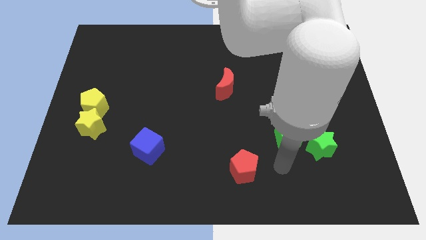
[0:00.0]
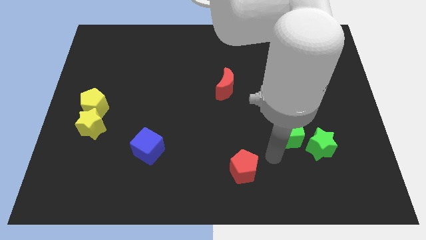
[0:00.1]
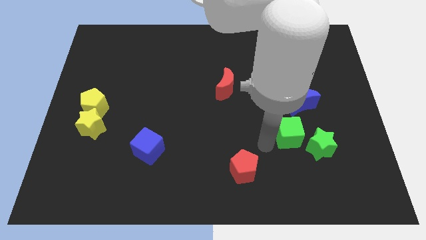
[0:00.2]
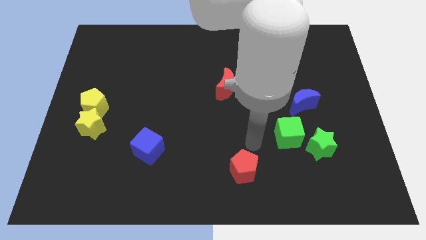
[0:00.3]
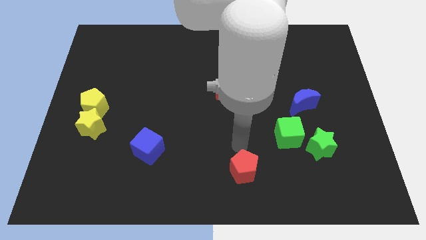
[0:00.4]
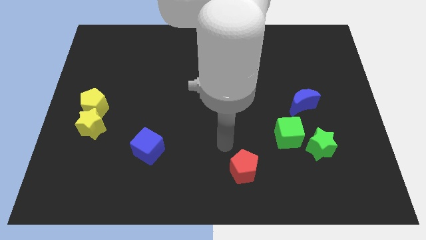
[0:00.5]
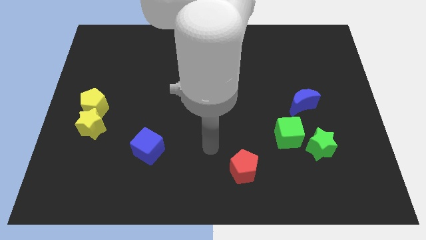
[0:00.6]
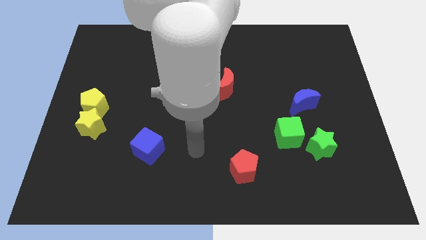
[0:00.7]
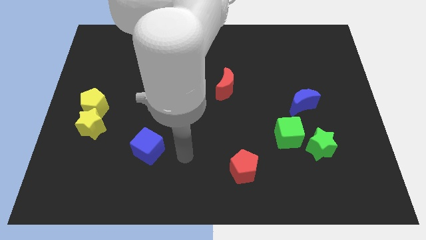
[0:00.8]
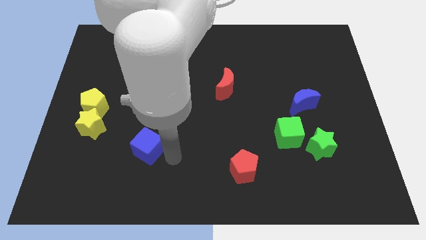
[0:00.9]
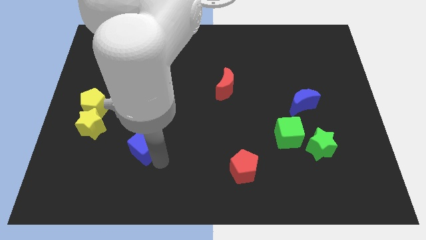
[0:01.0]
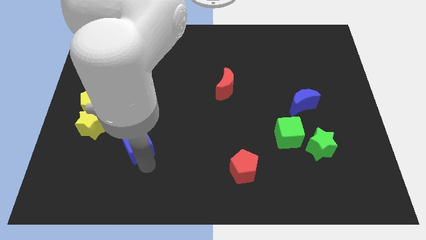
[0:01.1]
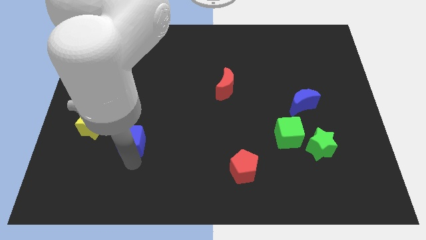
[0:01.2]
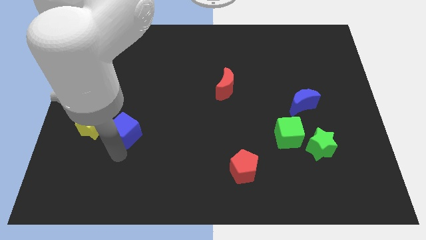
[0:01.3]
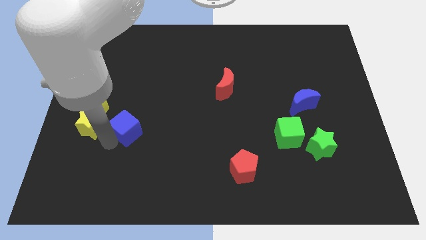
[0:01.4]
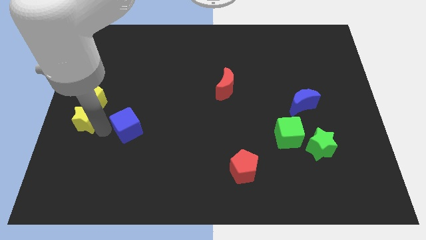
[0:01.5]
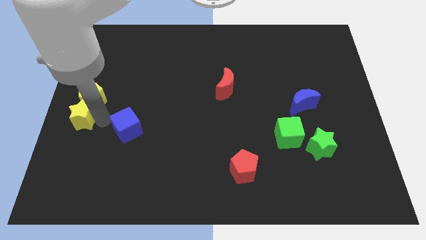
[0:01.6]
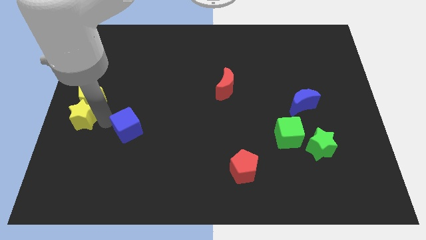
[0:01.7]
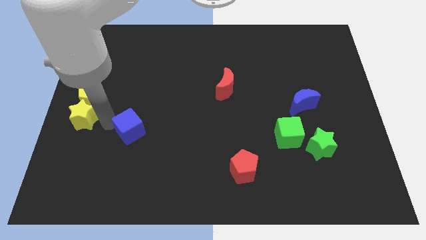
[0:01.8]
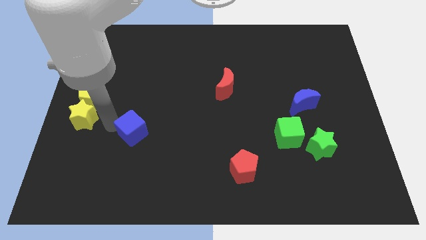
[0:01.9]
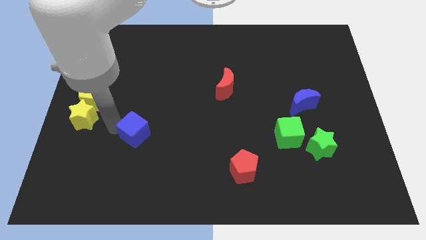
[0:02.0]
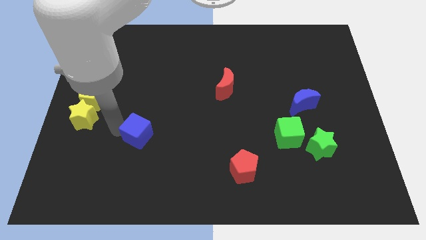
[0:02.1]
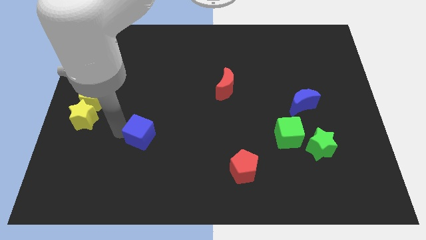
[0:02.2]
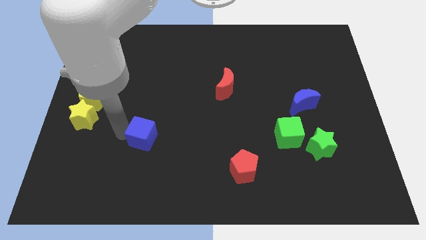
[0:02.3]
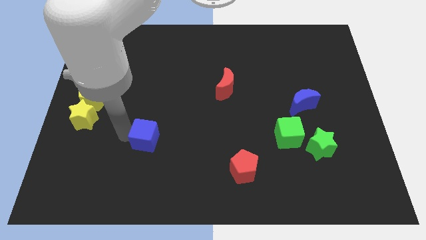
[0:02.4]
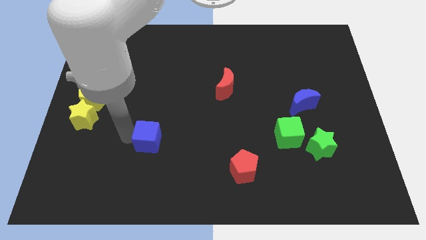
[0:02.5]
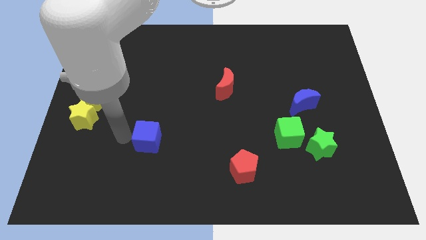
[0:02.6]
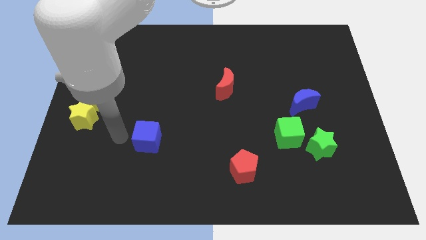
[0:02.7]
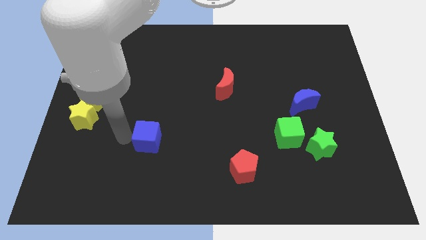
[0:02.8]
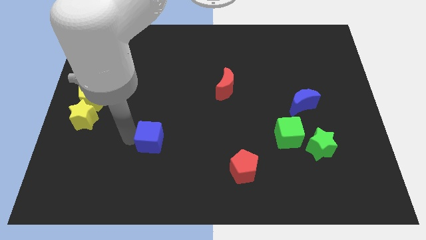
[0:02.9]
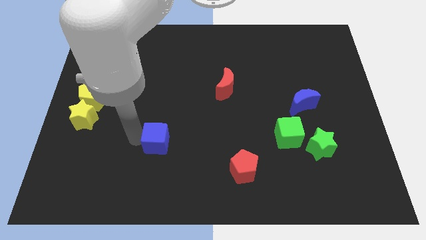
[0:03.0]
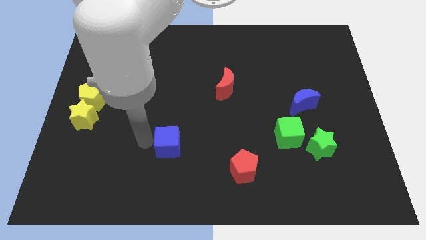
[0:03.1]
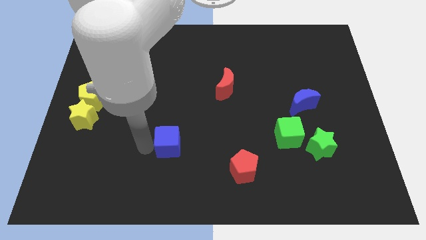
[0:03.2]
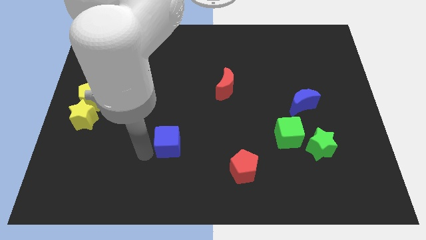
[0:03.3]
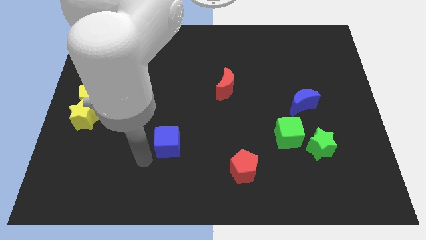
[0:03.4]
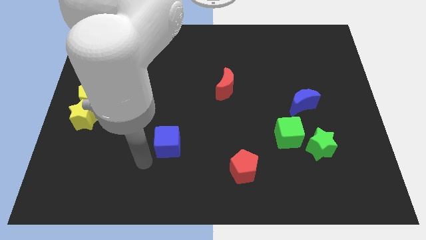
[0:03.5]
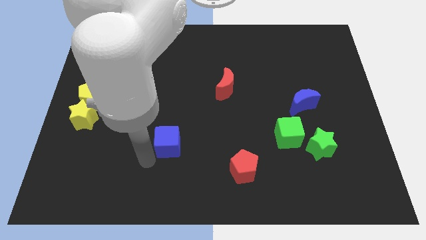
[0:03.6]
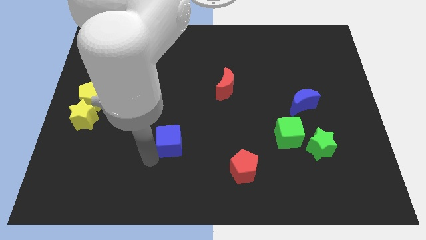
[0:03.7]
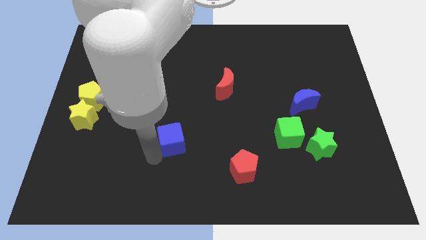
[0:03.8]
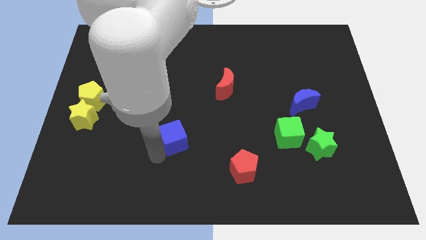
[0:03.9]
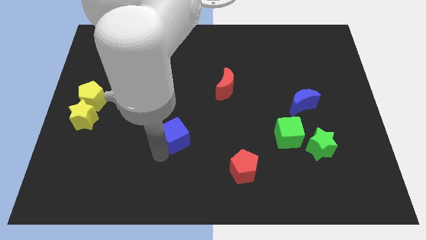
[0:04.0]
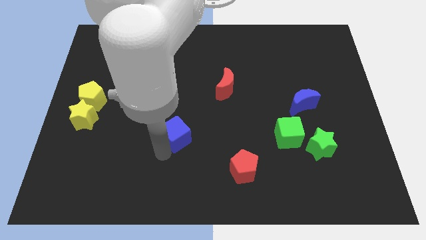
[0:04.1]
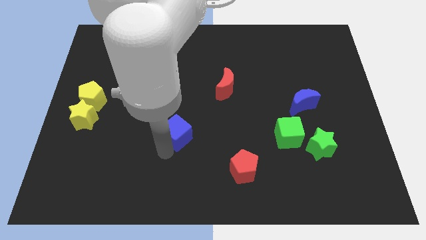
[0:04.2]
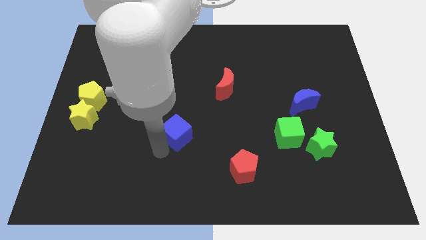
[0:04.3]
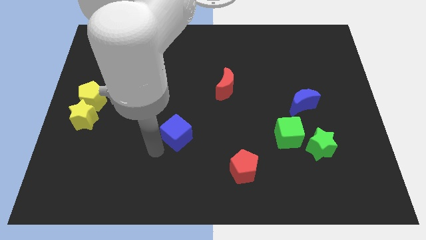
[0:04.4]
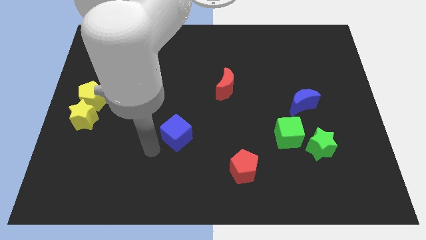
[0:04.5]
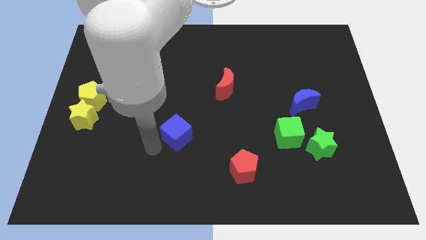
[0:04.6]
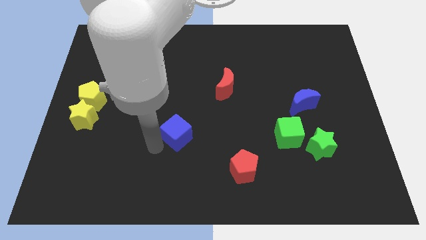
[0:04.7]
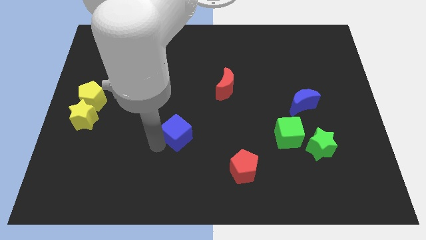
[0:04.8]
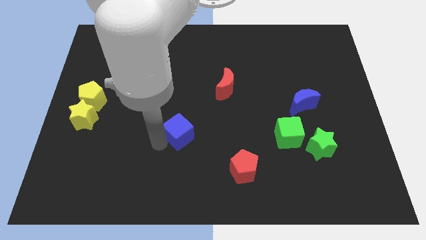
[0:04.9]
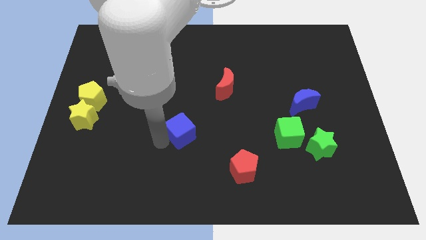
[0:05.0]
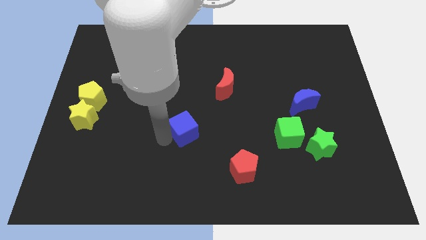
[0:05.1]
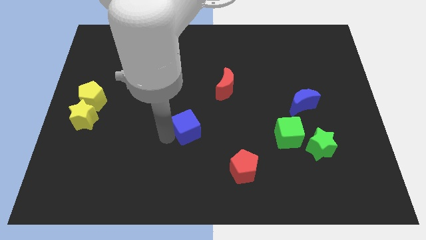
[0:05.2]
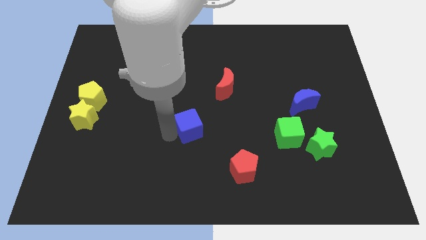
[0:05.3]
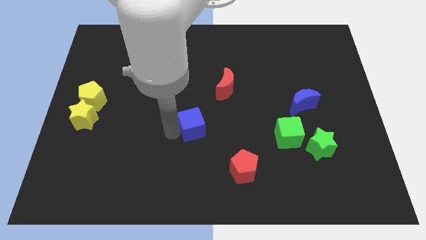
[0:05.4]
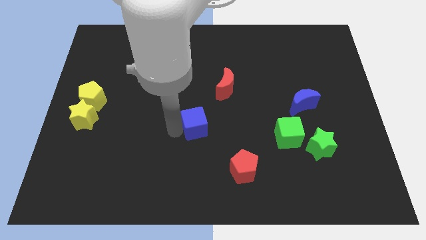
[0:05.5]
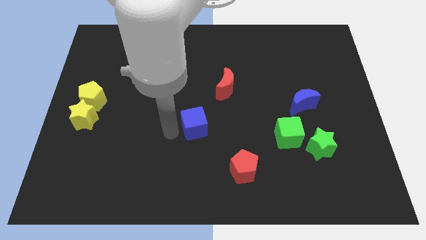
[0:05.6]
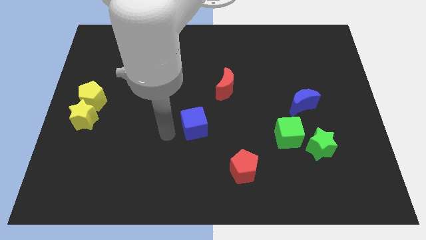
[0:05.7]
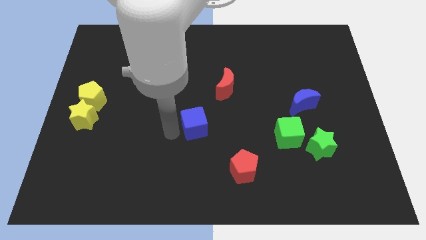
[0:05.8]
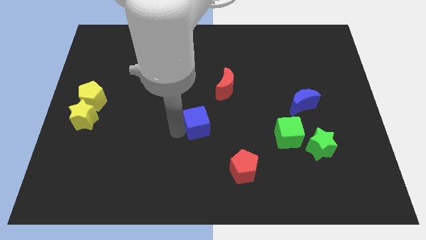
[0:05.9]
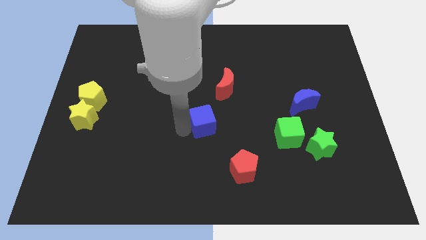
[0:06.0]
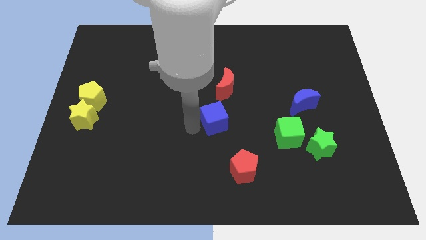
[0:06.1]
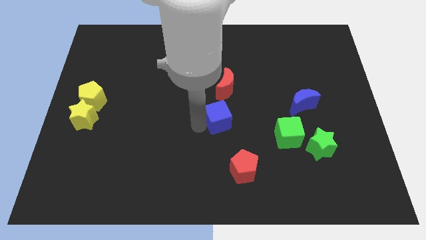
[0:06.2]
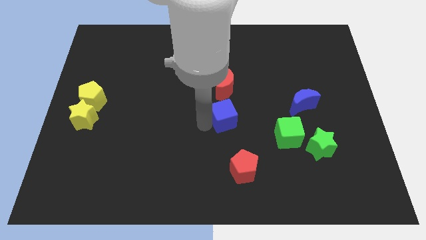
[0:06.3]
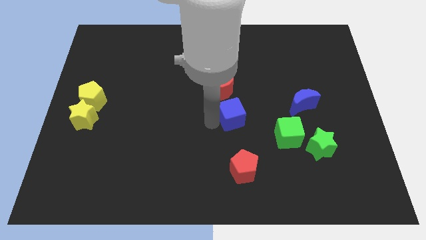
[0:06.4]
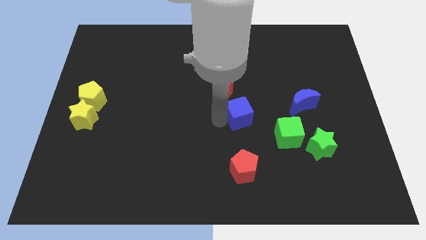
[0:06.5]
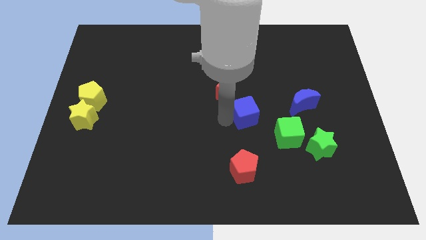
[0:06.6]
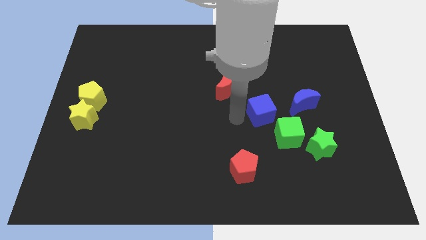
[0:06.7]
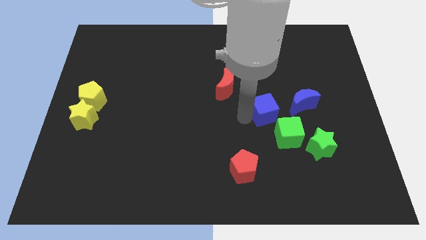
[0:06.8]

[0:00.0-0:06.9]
push the blue cube above the green cube

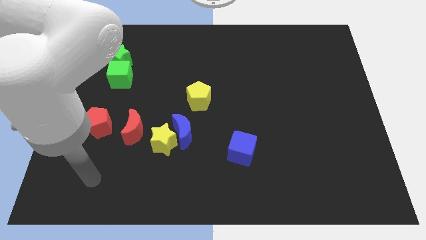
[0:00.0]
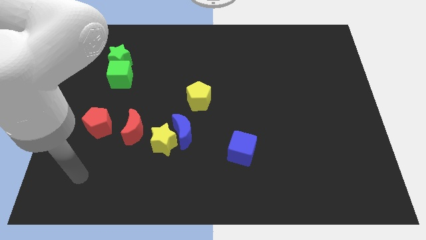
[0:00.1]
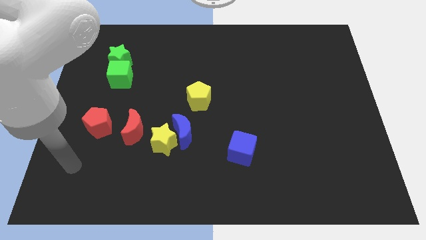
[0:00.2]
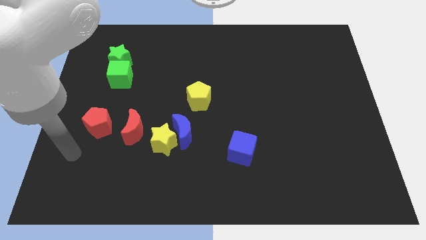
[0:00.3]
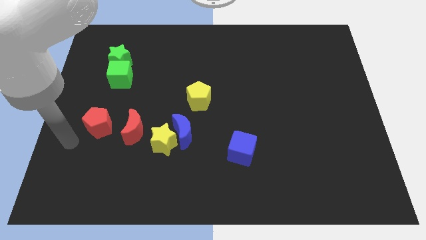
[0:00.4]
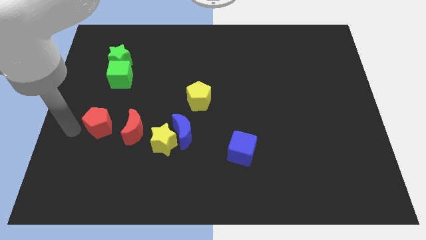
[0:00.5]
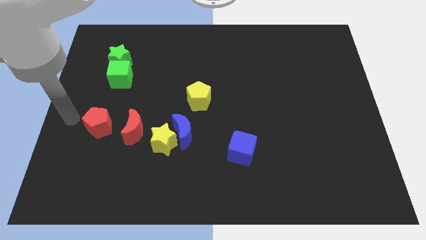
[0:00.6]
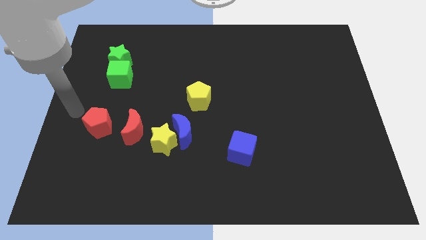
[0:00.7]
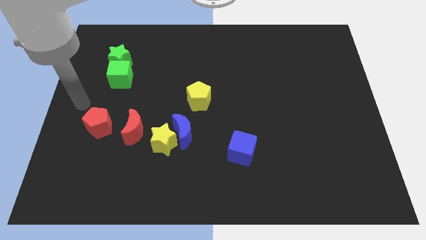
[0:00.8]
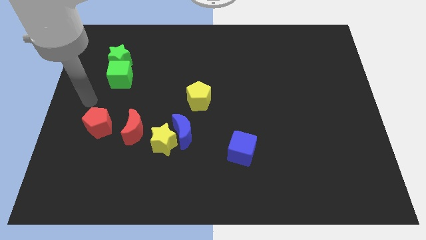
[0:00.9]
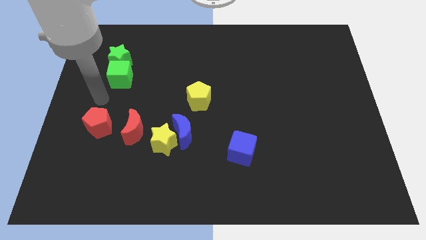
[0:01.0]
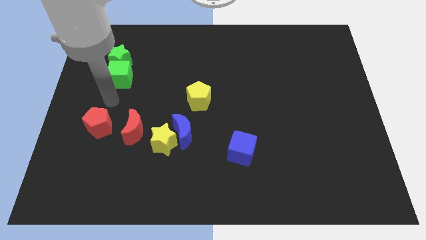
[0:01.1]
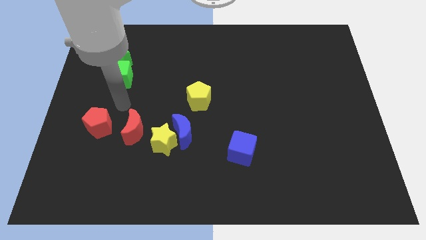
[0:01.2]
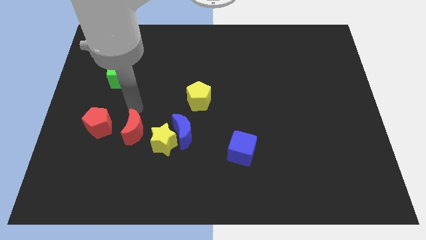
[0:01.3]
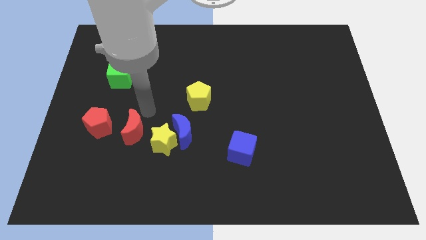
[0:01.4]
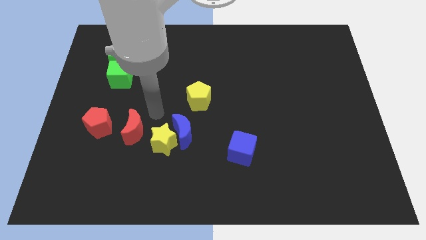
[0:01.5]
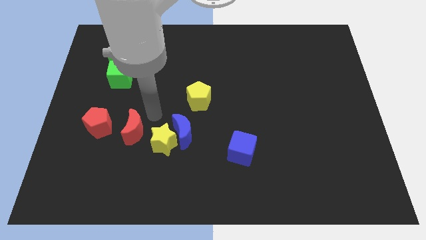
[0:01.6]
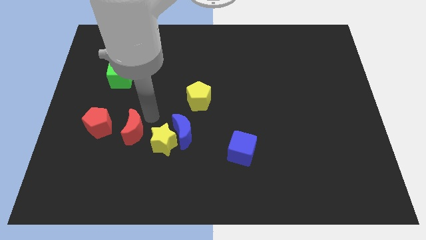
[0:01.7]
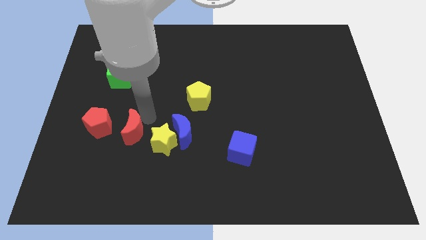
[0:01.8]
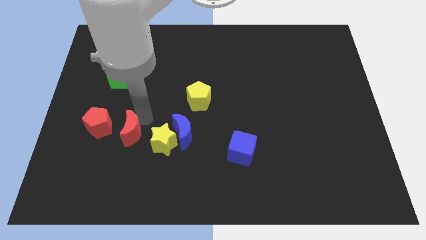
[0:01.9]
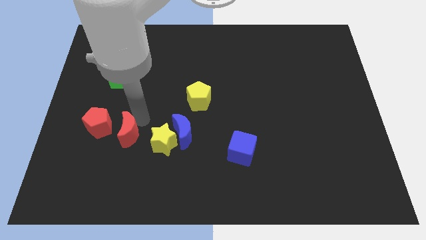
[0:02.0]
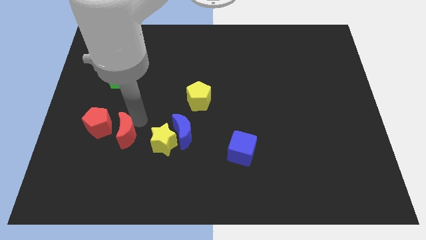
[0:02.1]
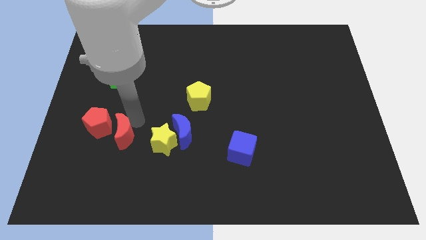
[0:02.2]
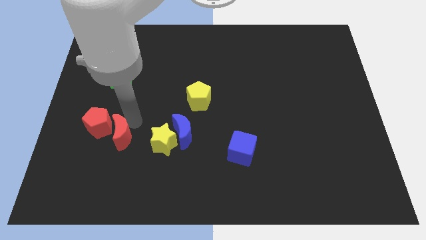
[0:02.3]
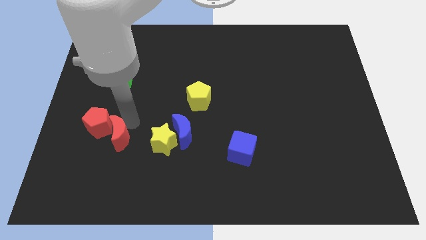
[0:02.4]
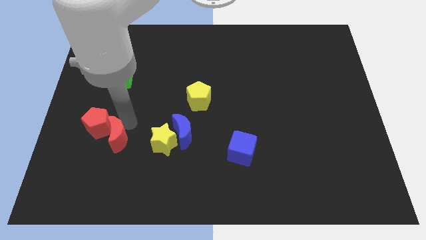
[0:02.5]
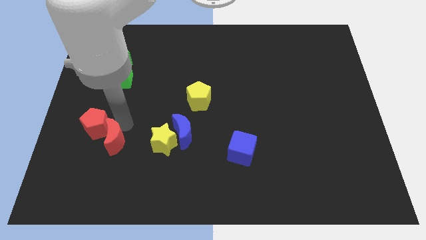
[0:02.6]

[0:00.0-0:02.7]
put the red moon to the bottom side of the red pentagon
